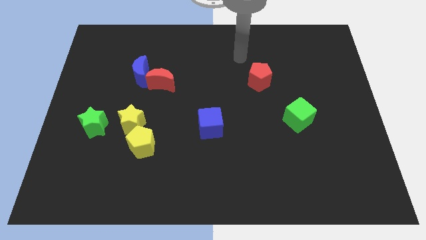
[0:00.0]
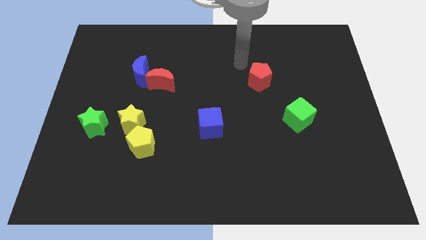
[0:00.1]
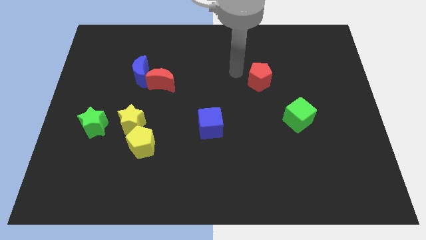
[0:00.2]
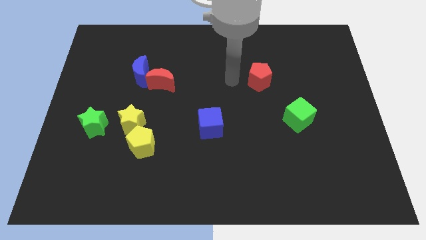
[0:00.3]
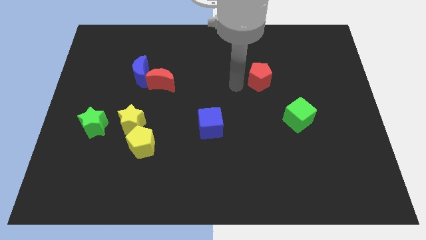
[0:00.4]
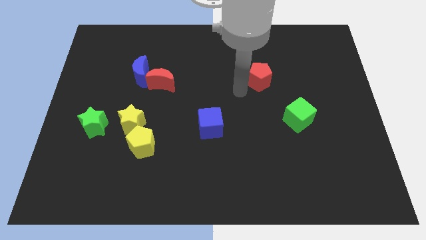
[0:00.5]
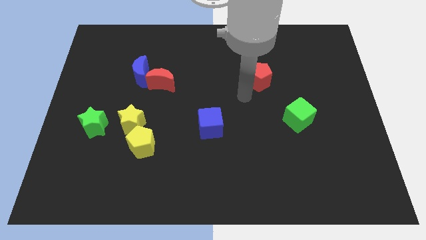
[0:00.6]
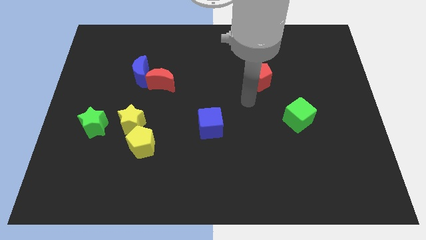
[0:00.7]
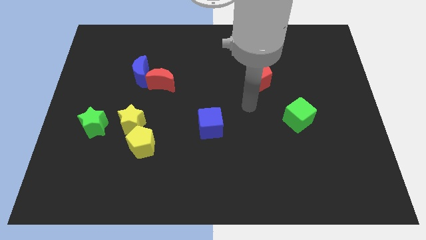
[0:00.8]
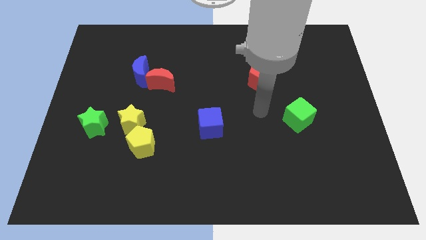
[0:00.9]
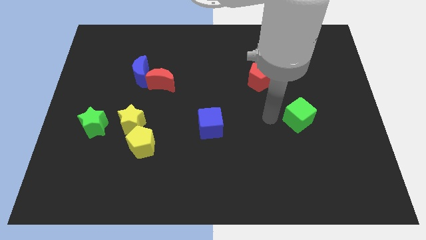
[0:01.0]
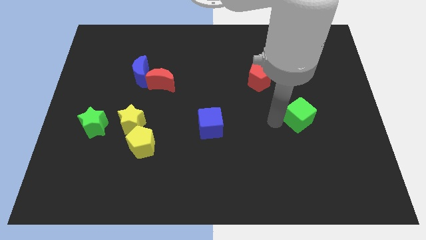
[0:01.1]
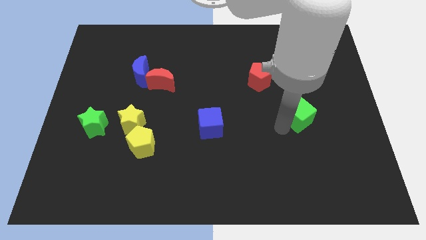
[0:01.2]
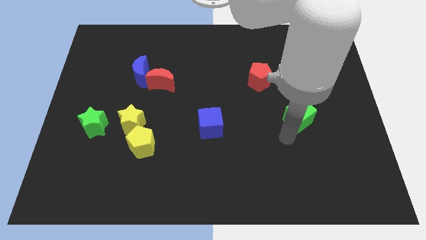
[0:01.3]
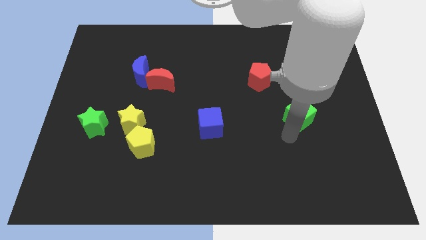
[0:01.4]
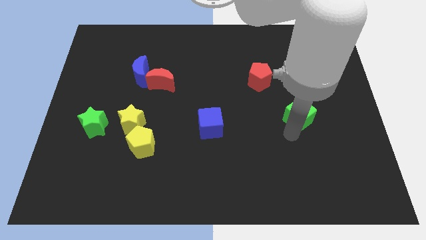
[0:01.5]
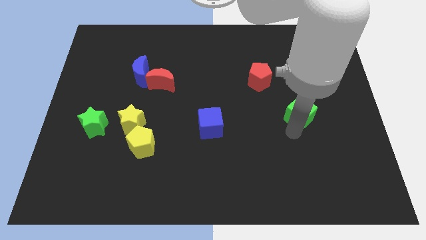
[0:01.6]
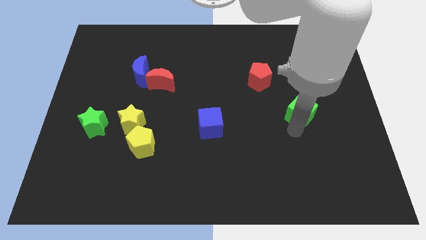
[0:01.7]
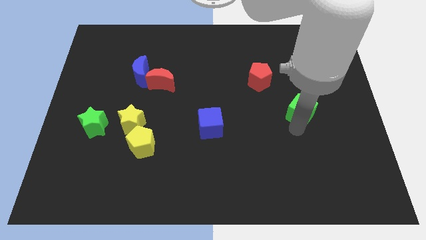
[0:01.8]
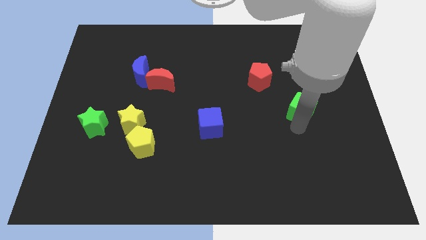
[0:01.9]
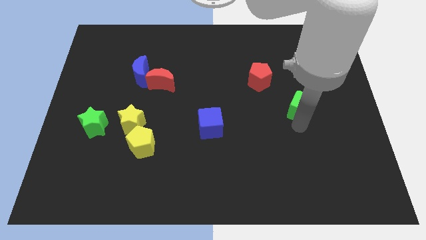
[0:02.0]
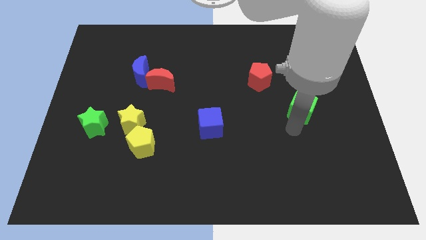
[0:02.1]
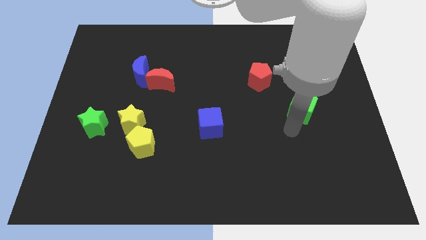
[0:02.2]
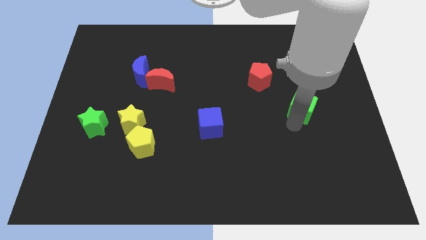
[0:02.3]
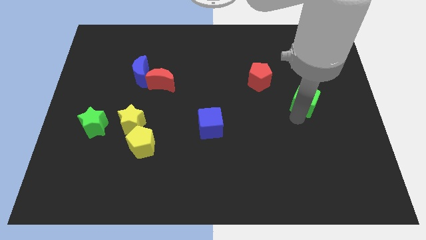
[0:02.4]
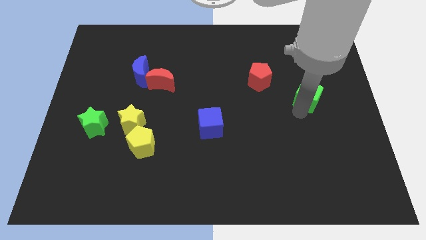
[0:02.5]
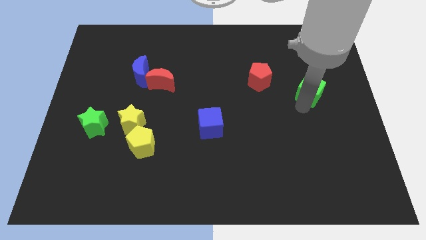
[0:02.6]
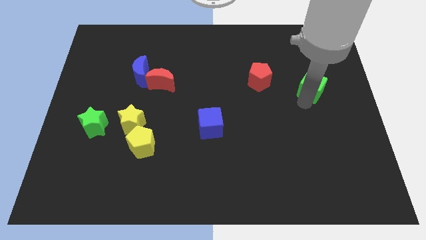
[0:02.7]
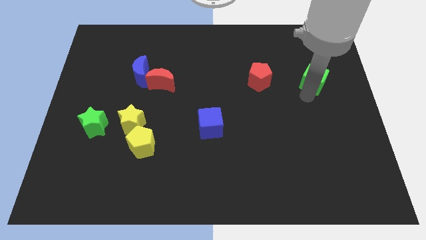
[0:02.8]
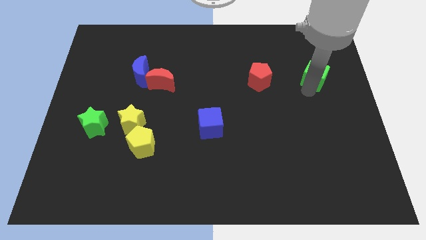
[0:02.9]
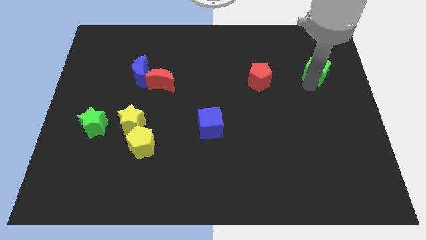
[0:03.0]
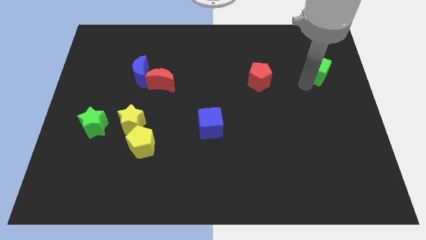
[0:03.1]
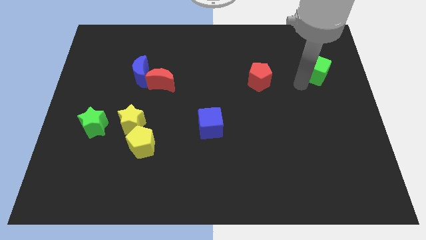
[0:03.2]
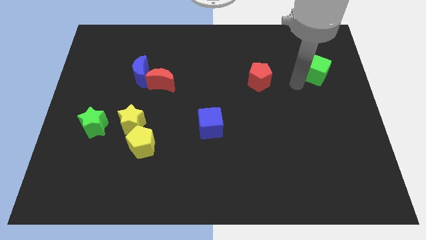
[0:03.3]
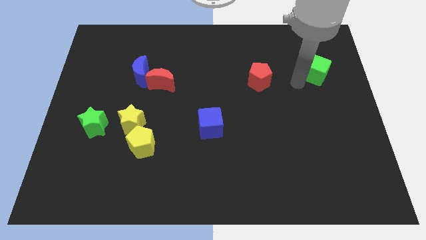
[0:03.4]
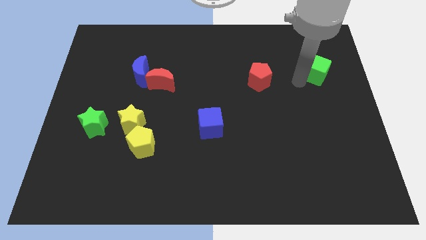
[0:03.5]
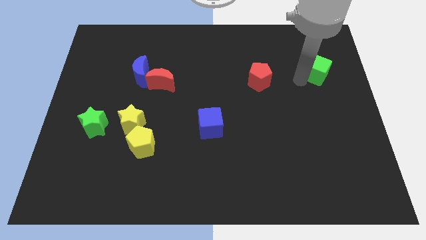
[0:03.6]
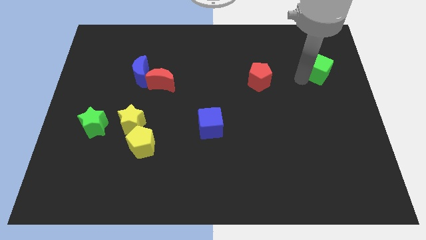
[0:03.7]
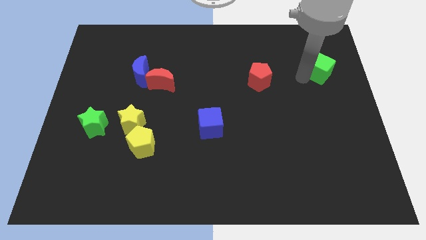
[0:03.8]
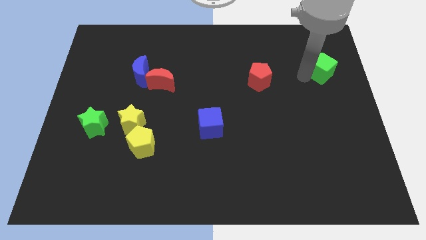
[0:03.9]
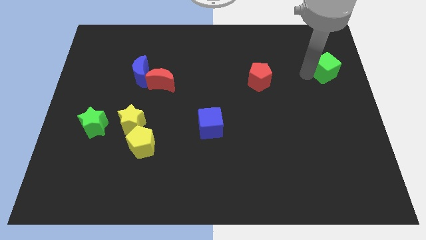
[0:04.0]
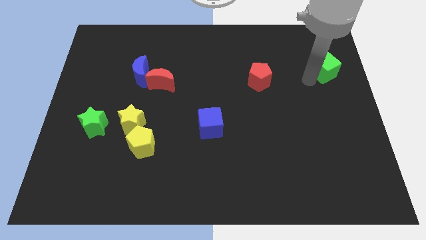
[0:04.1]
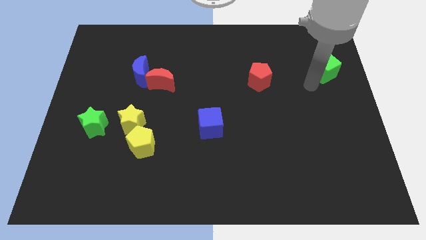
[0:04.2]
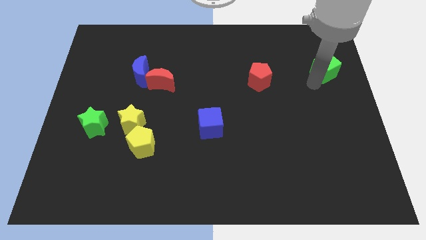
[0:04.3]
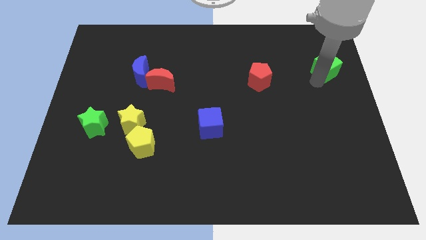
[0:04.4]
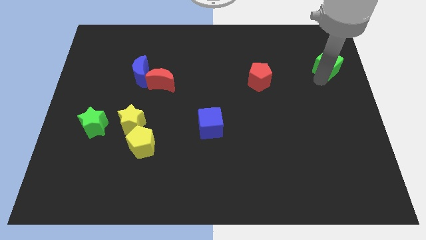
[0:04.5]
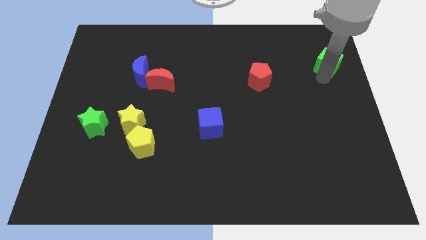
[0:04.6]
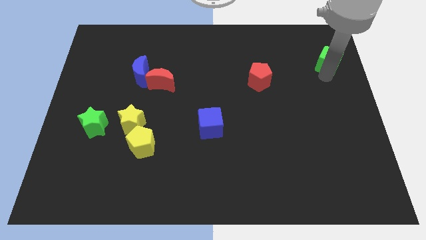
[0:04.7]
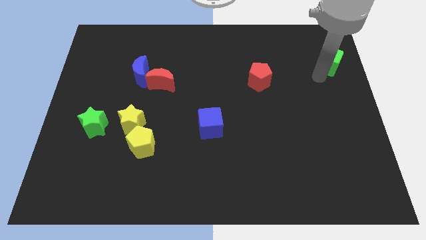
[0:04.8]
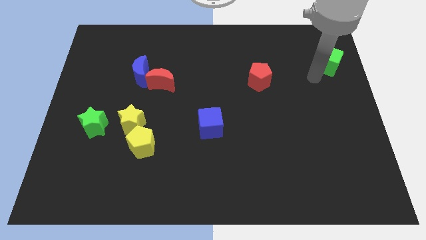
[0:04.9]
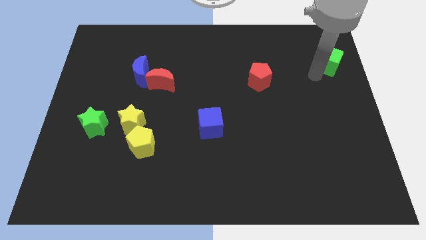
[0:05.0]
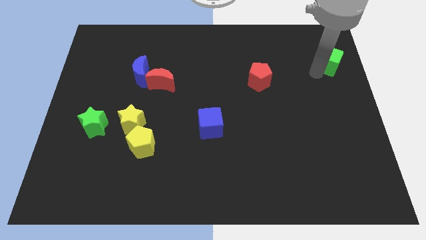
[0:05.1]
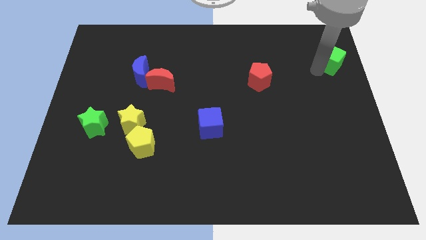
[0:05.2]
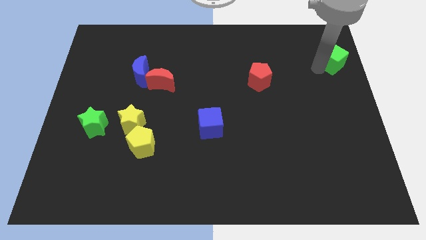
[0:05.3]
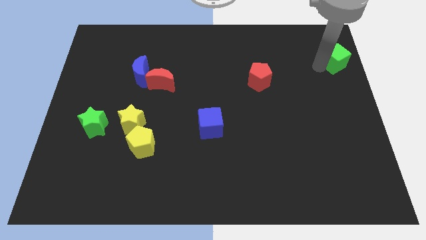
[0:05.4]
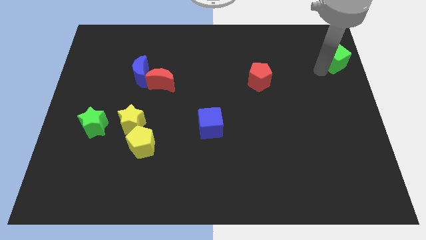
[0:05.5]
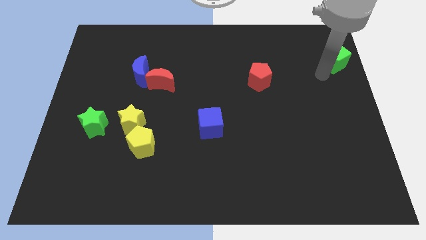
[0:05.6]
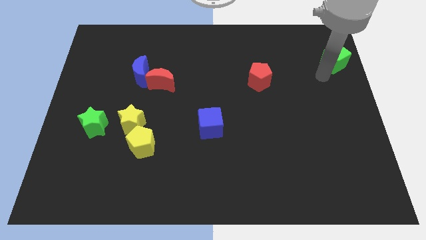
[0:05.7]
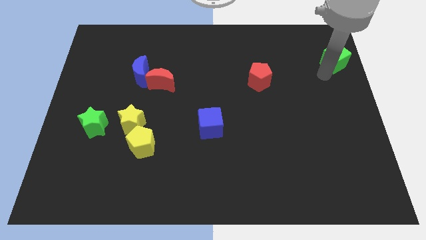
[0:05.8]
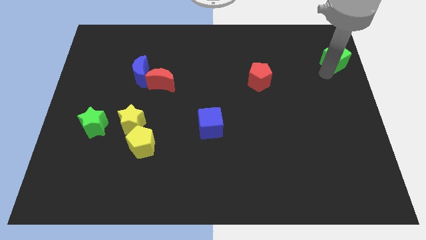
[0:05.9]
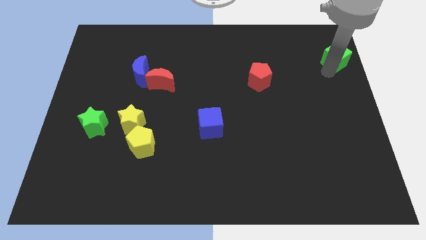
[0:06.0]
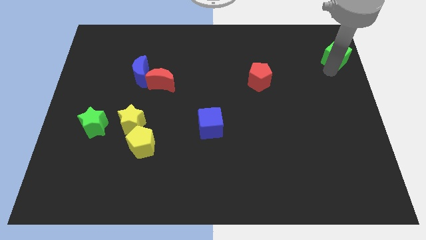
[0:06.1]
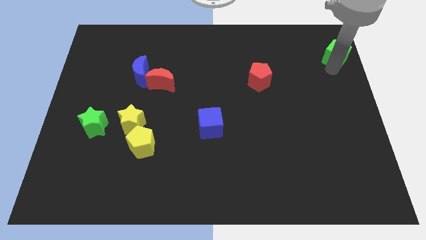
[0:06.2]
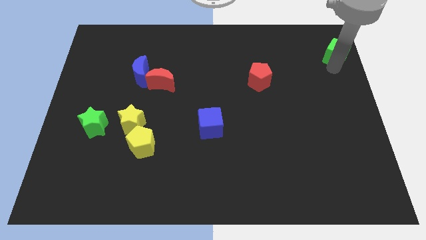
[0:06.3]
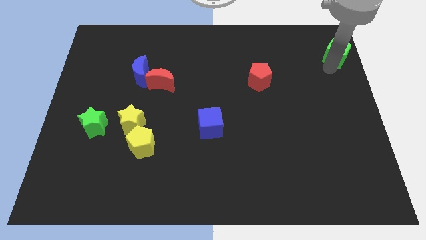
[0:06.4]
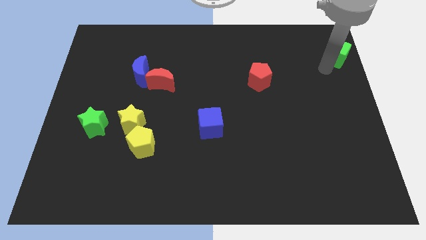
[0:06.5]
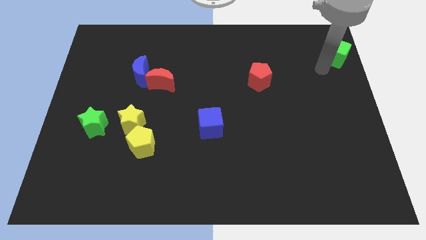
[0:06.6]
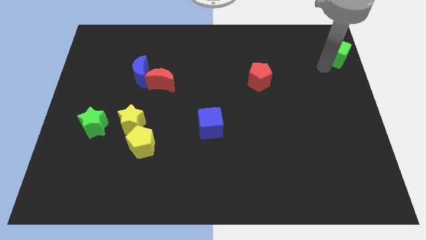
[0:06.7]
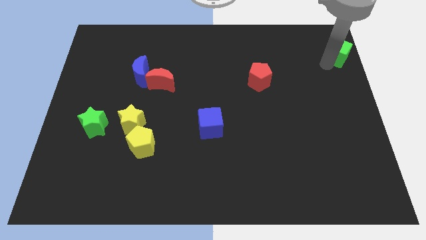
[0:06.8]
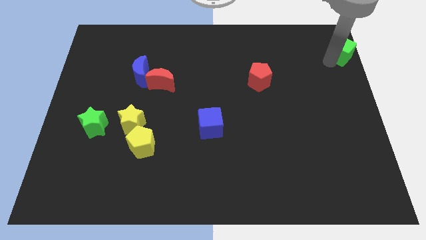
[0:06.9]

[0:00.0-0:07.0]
push the green cube to the upper right corner
